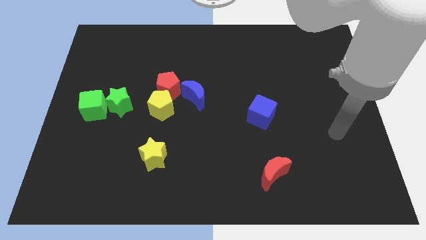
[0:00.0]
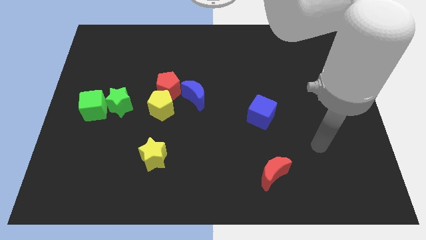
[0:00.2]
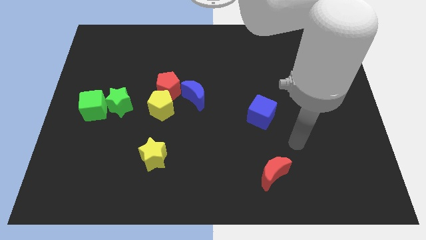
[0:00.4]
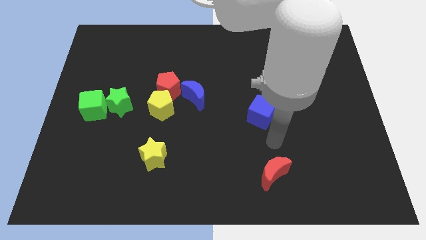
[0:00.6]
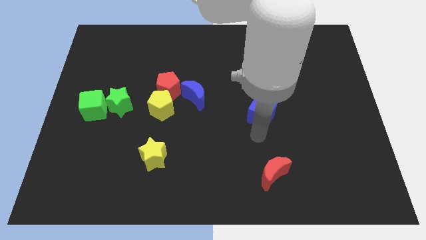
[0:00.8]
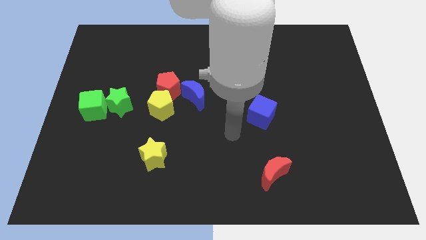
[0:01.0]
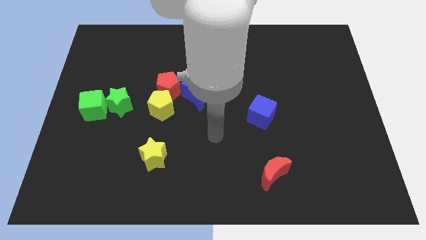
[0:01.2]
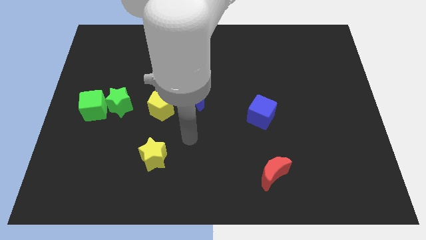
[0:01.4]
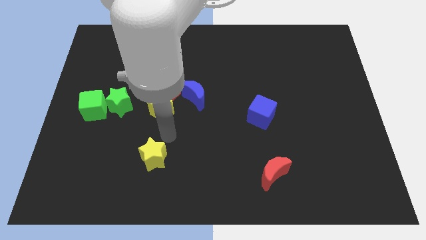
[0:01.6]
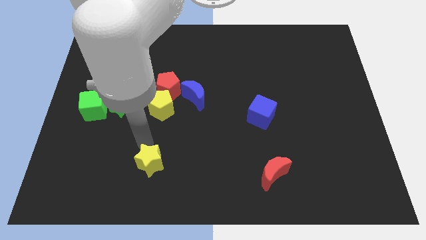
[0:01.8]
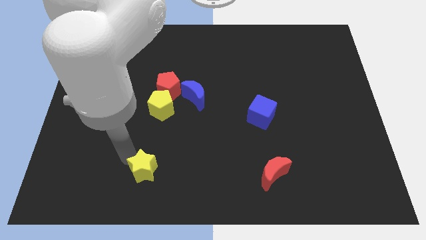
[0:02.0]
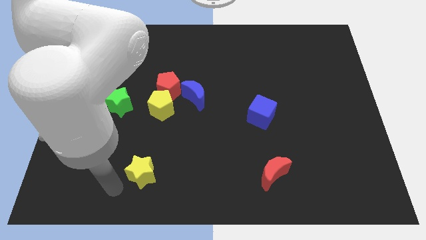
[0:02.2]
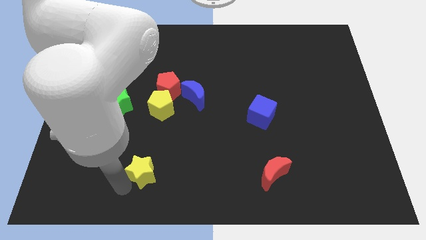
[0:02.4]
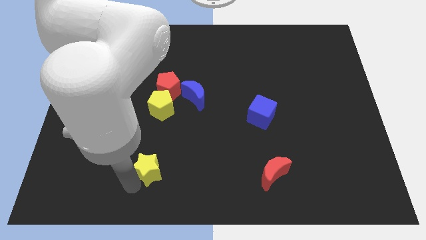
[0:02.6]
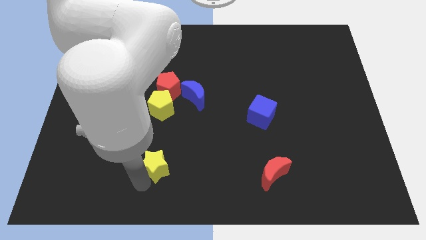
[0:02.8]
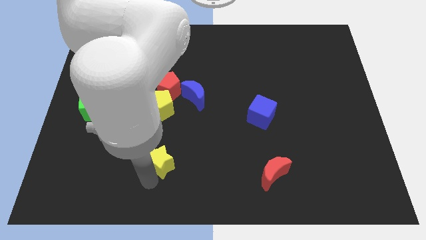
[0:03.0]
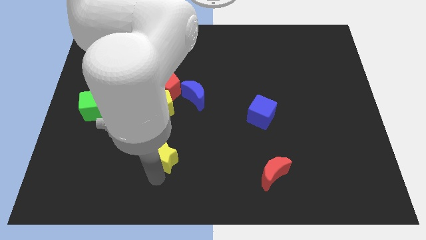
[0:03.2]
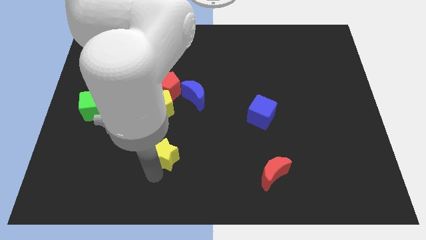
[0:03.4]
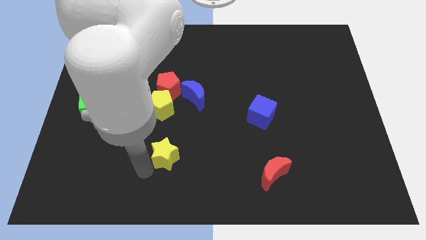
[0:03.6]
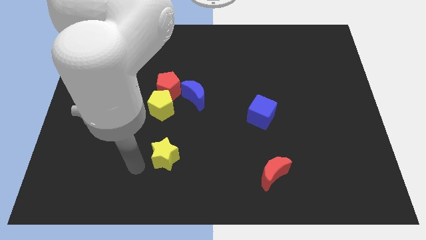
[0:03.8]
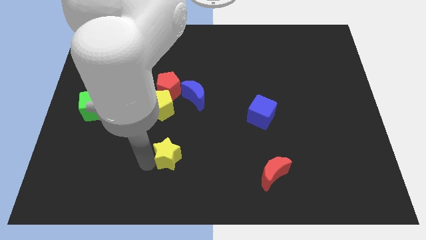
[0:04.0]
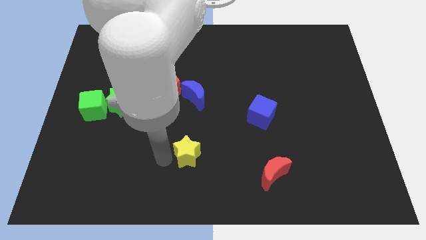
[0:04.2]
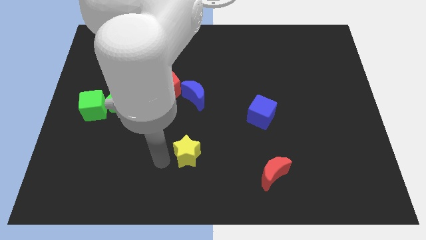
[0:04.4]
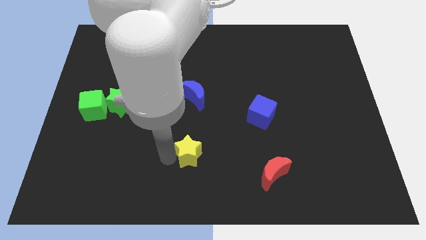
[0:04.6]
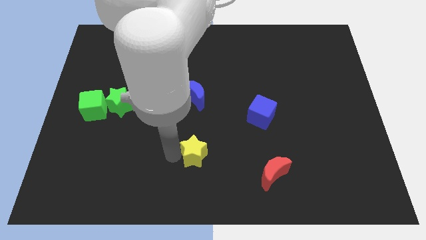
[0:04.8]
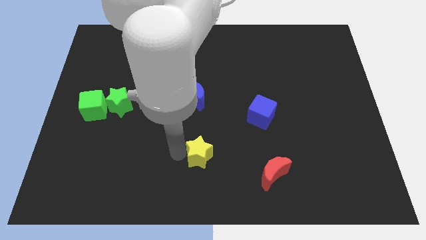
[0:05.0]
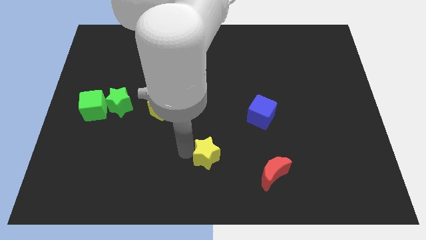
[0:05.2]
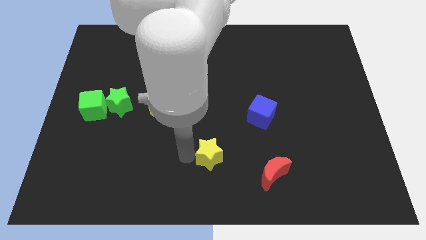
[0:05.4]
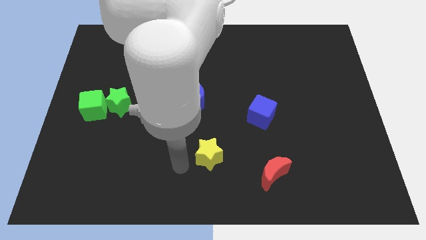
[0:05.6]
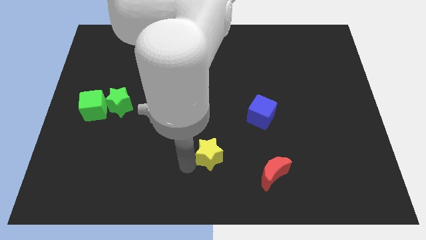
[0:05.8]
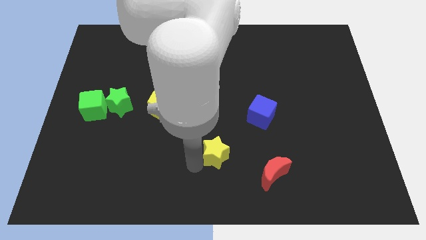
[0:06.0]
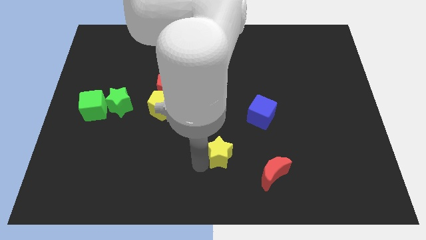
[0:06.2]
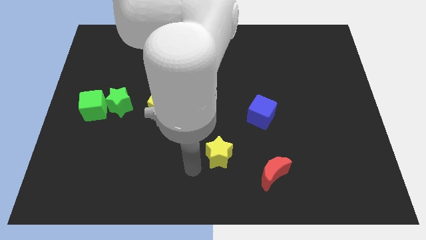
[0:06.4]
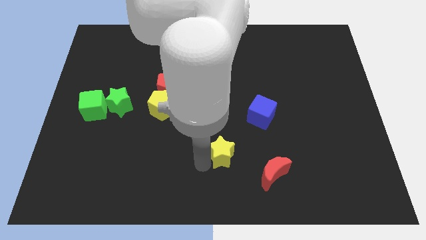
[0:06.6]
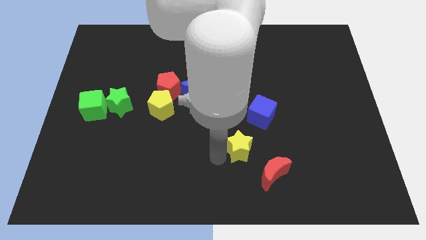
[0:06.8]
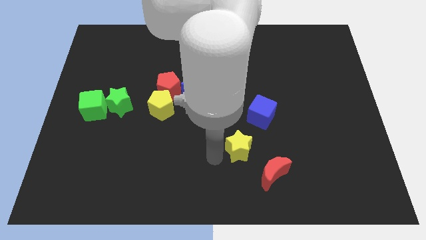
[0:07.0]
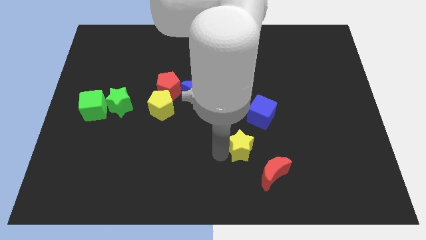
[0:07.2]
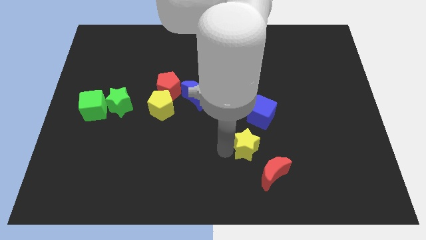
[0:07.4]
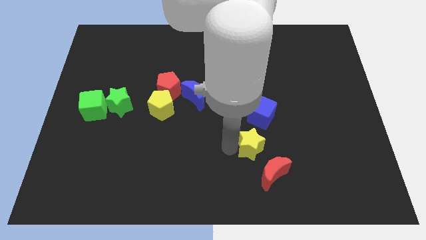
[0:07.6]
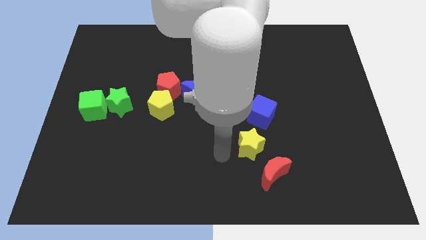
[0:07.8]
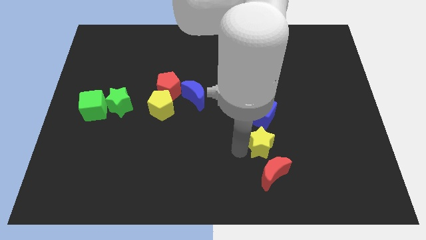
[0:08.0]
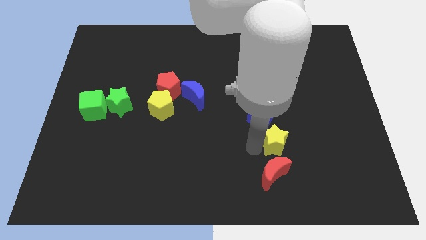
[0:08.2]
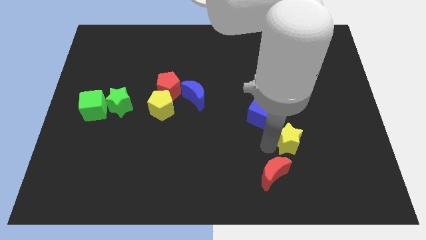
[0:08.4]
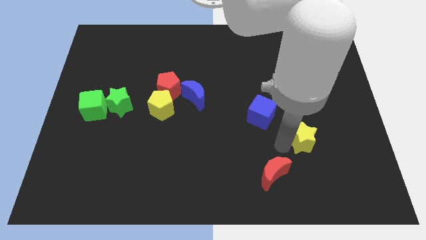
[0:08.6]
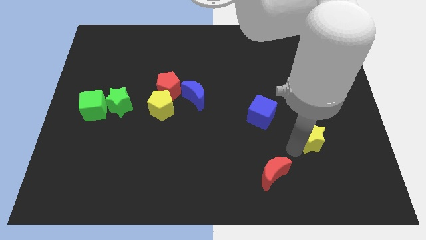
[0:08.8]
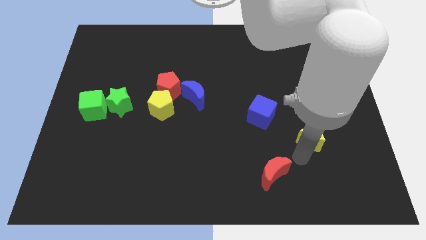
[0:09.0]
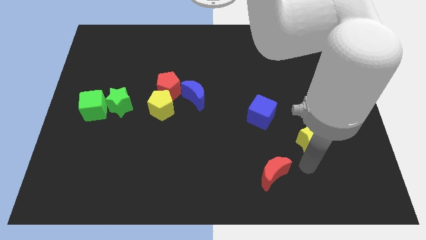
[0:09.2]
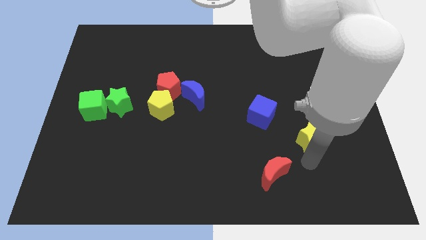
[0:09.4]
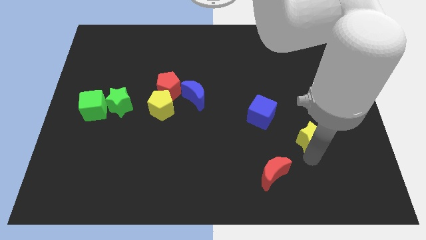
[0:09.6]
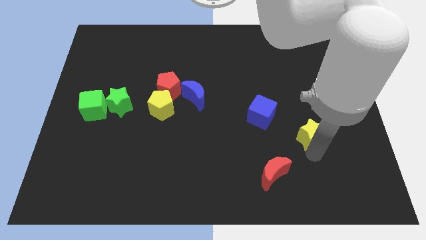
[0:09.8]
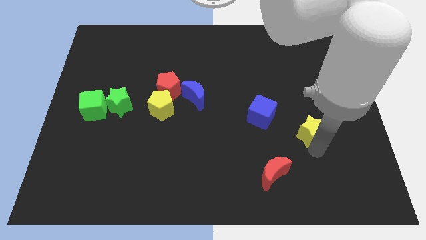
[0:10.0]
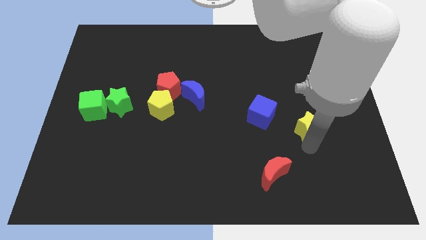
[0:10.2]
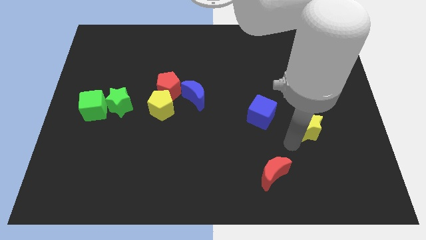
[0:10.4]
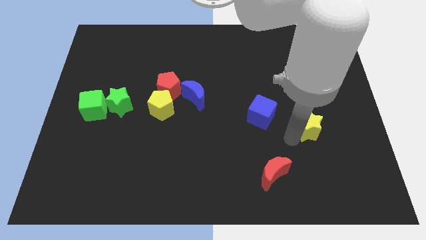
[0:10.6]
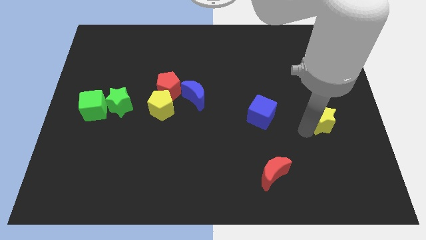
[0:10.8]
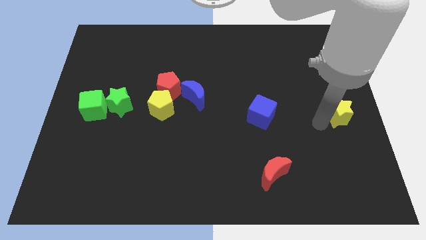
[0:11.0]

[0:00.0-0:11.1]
move the yellow star to the center right

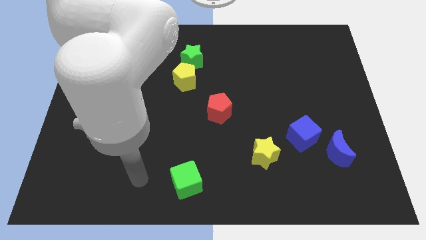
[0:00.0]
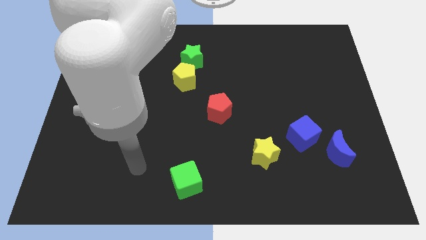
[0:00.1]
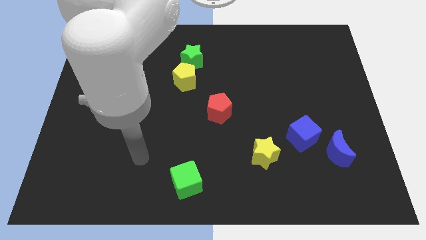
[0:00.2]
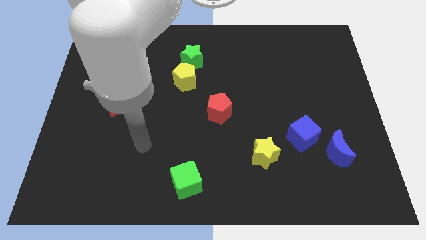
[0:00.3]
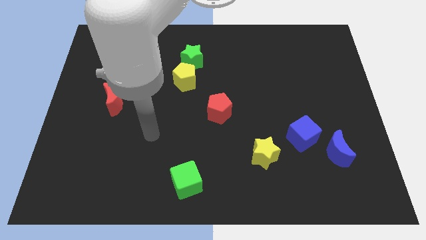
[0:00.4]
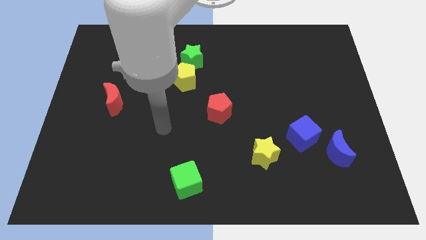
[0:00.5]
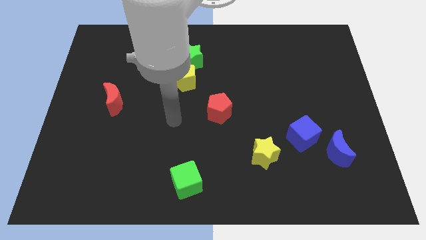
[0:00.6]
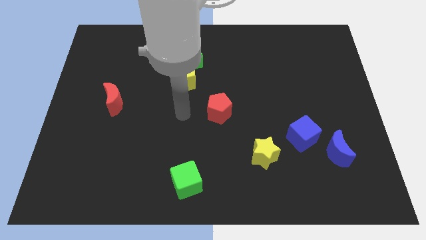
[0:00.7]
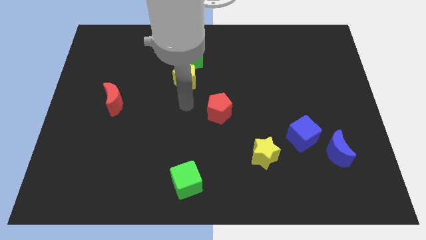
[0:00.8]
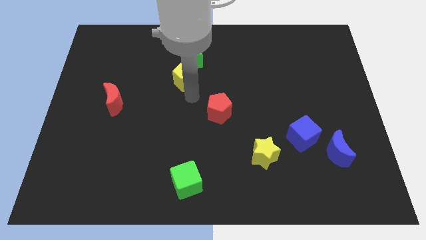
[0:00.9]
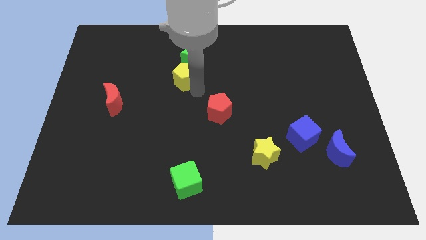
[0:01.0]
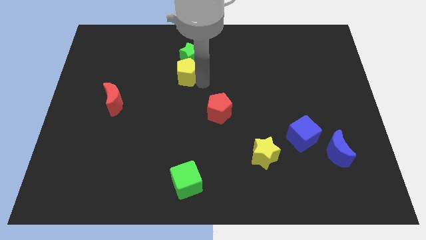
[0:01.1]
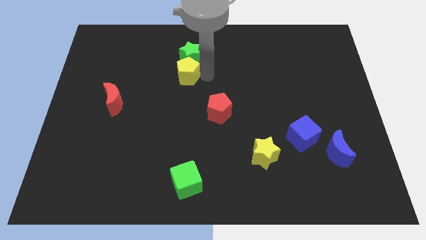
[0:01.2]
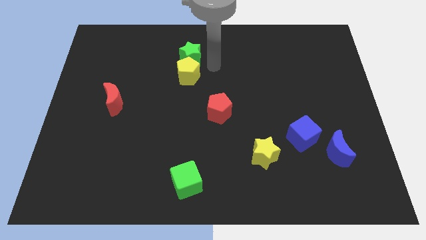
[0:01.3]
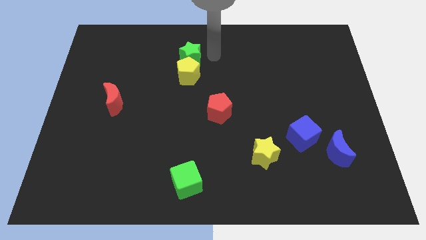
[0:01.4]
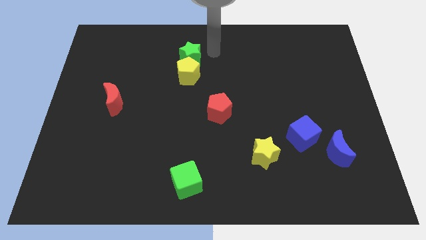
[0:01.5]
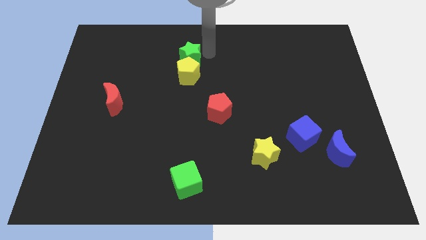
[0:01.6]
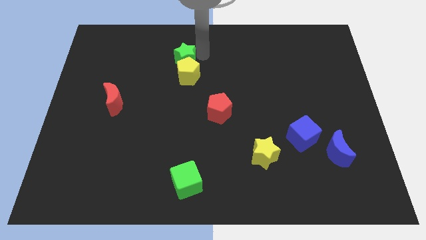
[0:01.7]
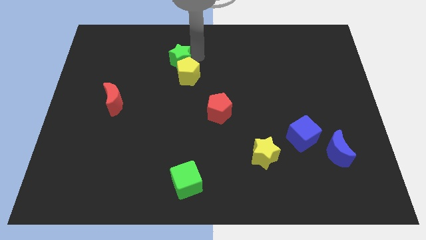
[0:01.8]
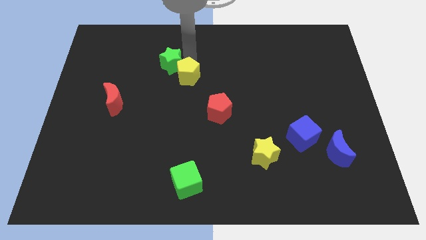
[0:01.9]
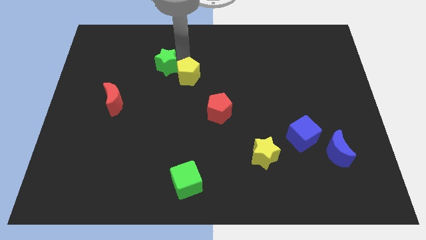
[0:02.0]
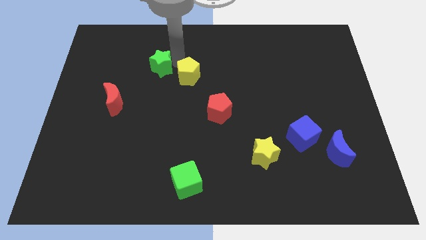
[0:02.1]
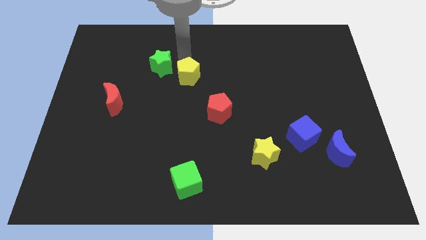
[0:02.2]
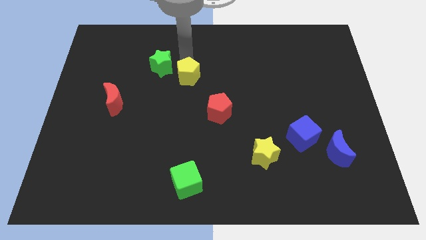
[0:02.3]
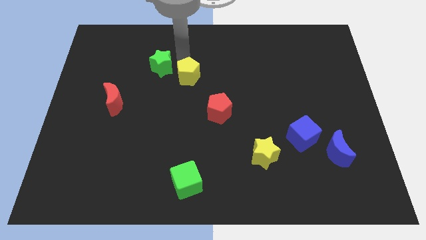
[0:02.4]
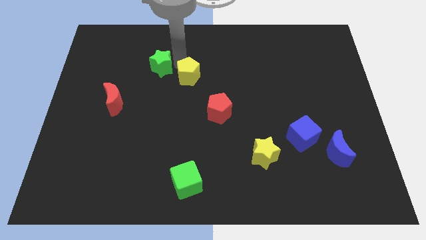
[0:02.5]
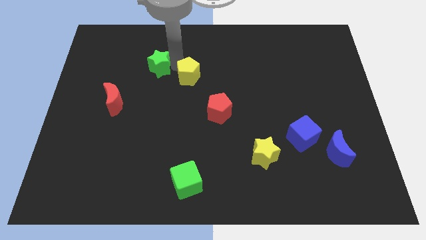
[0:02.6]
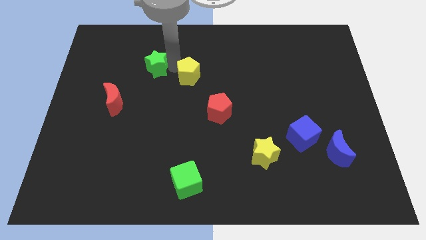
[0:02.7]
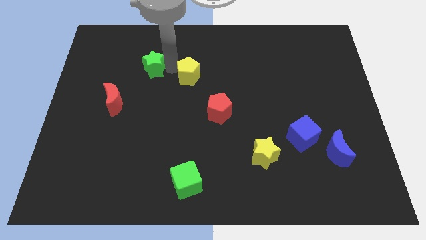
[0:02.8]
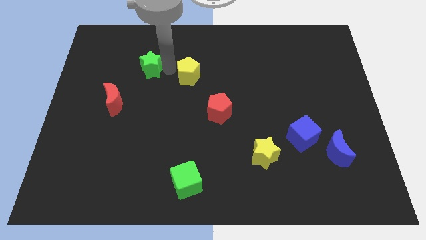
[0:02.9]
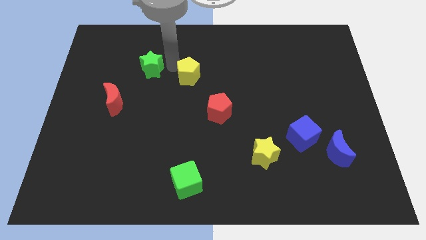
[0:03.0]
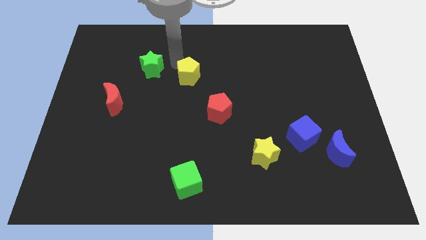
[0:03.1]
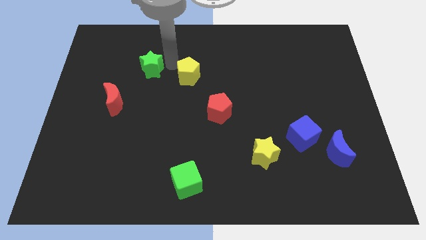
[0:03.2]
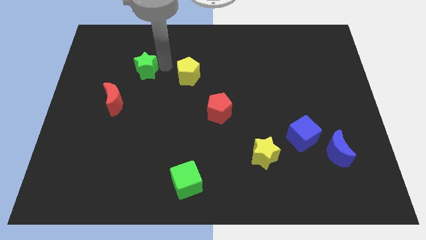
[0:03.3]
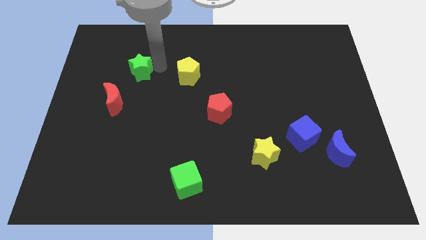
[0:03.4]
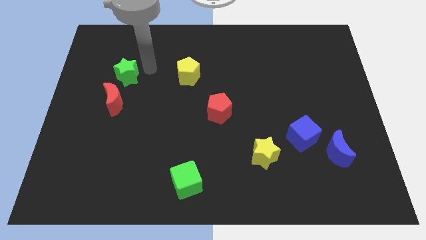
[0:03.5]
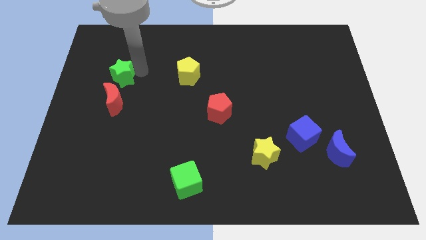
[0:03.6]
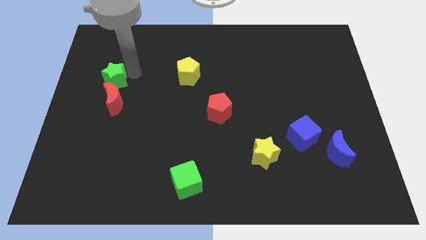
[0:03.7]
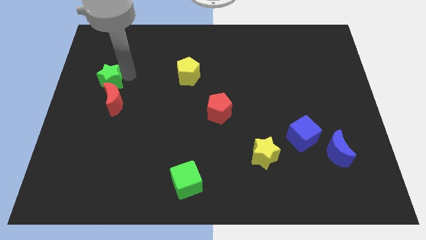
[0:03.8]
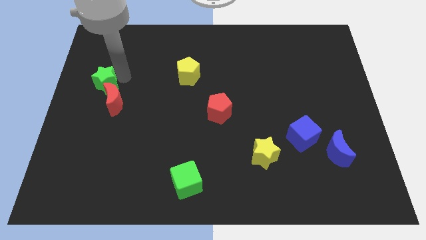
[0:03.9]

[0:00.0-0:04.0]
put the green star to the left side of the board
